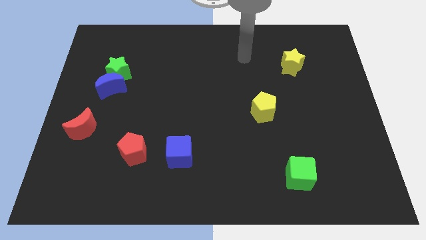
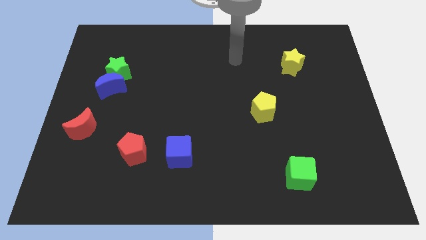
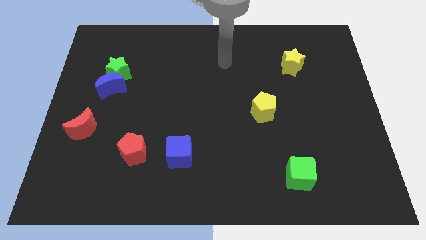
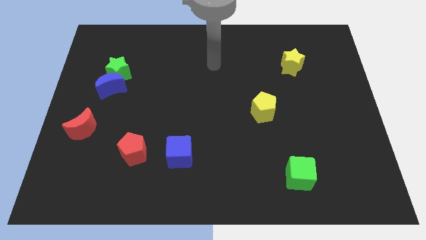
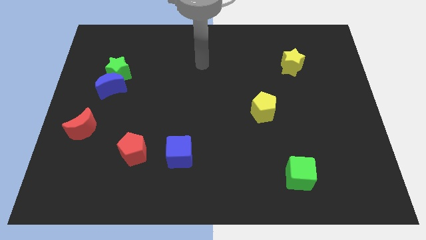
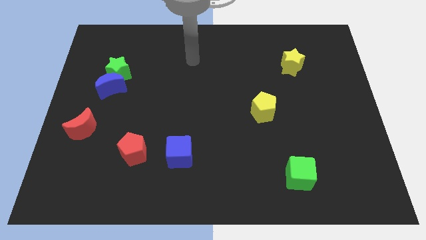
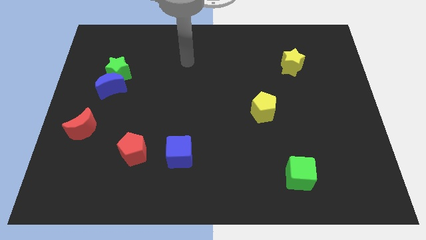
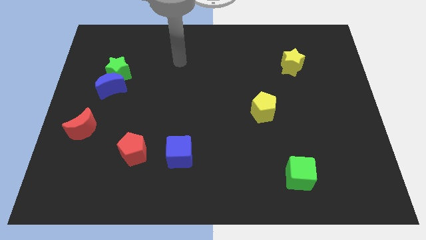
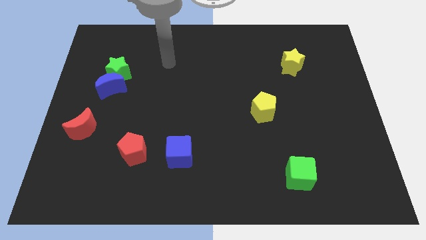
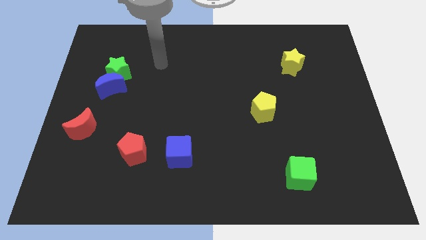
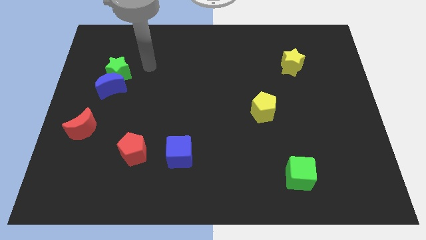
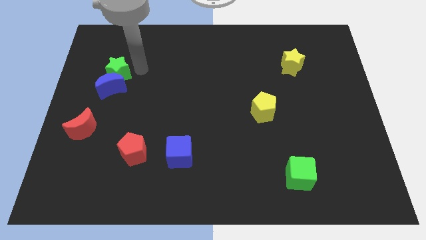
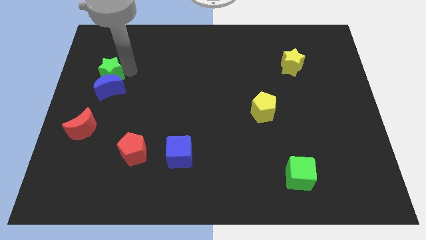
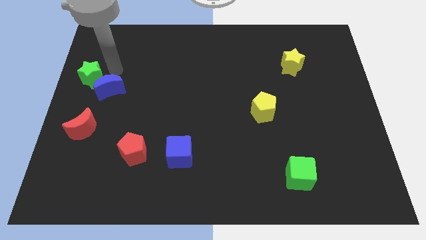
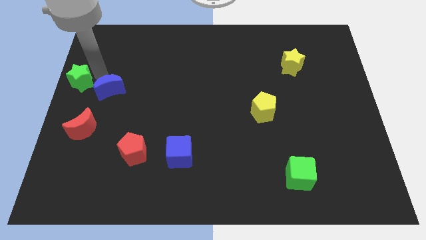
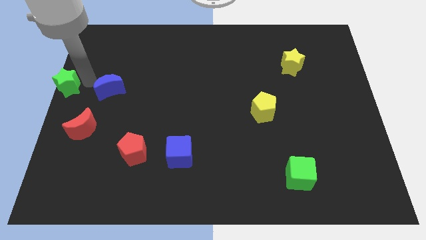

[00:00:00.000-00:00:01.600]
separate the blue moon from the green star

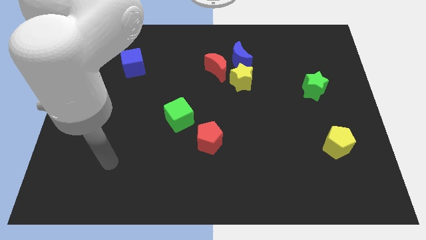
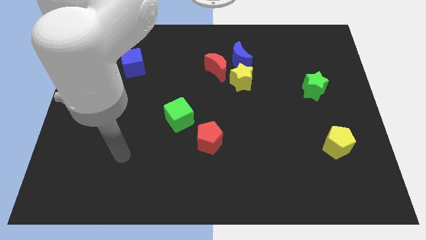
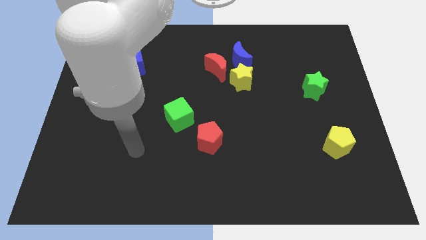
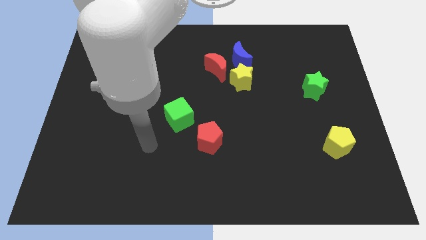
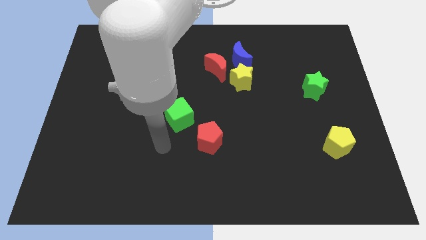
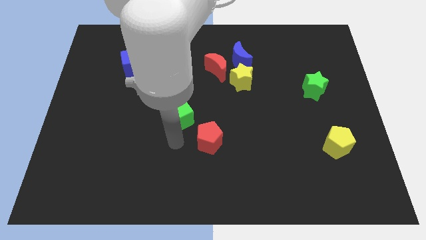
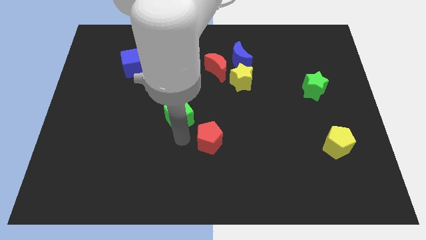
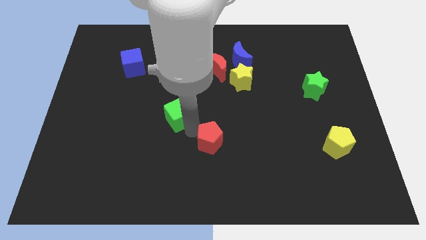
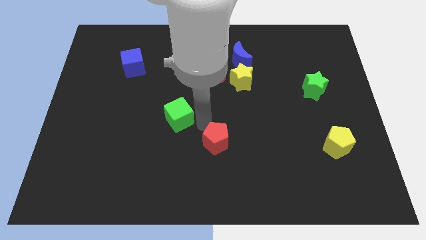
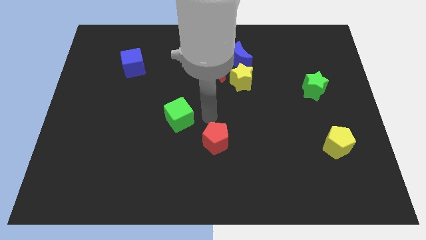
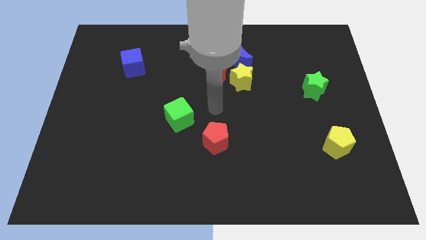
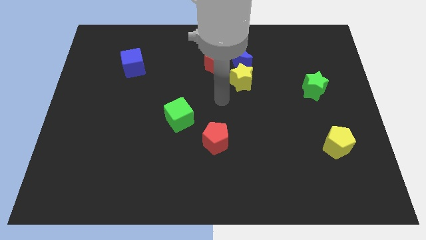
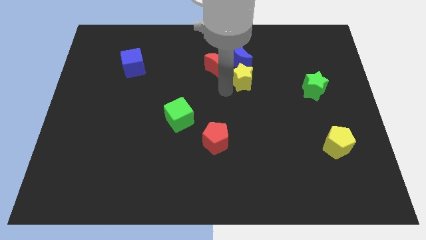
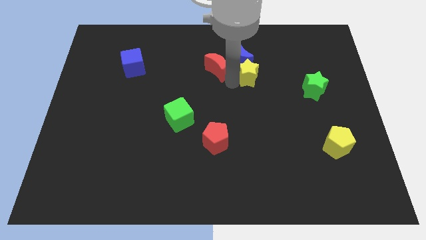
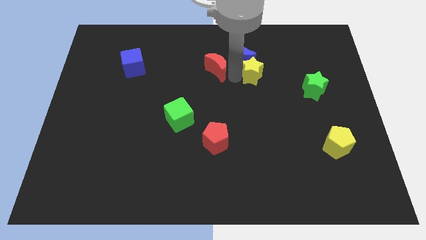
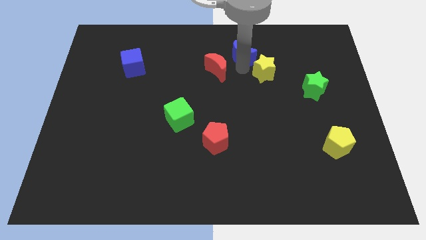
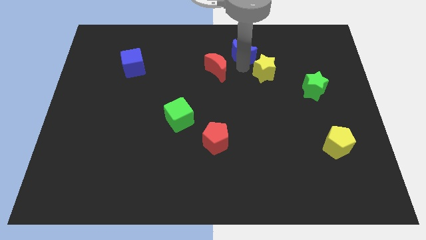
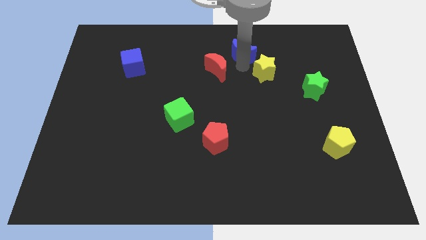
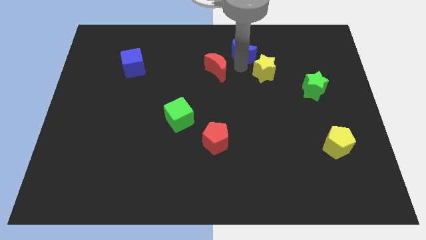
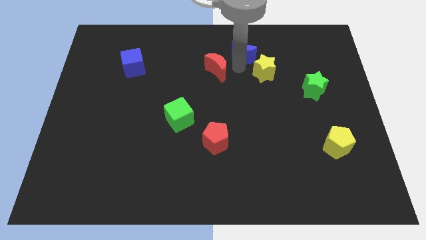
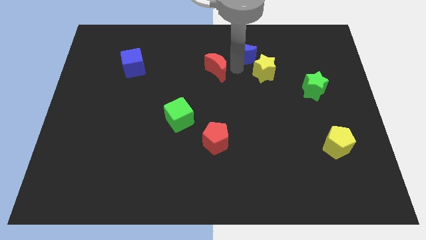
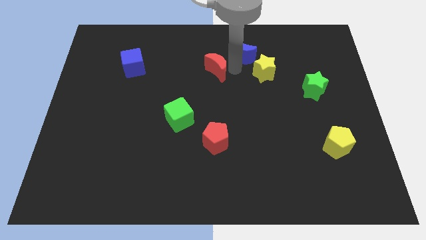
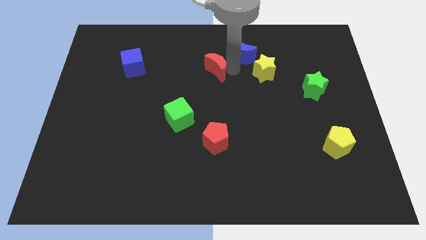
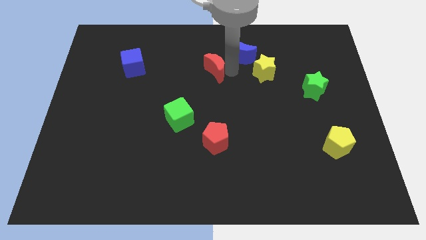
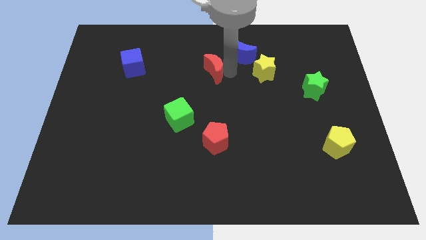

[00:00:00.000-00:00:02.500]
pull the red moon apart from the blue moon and yellow star

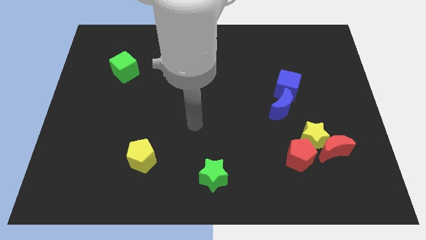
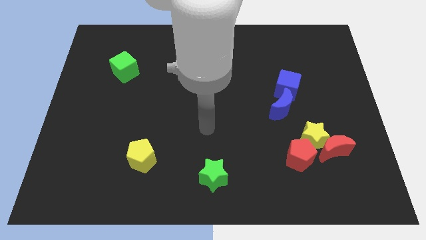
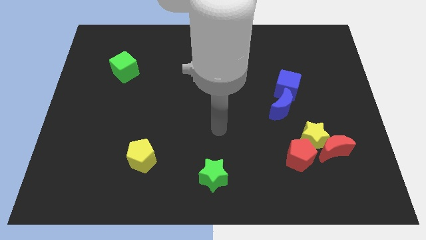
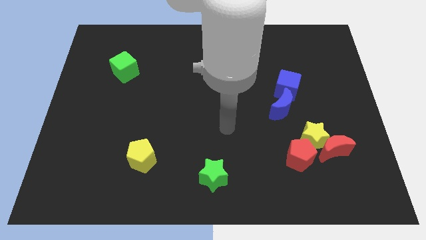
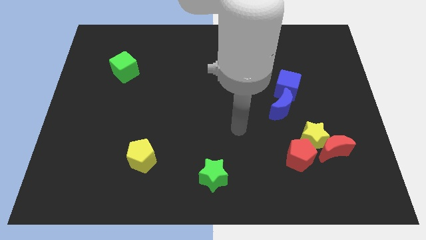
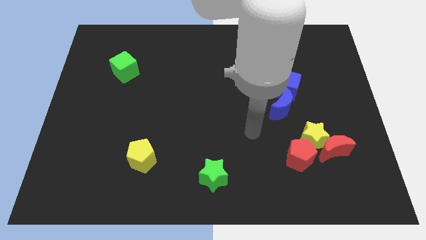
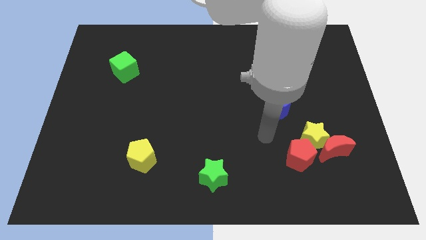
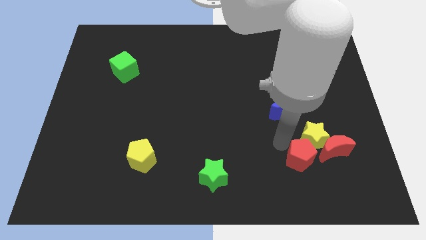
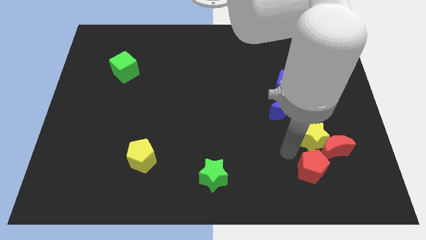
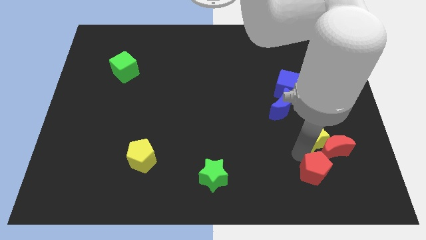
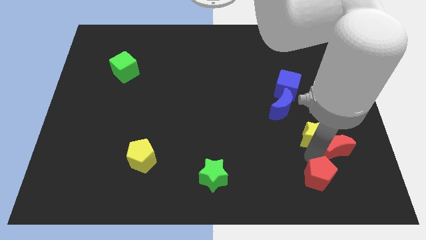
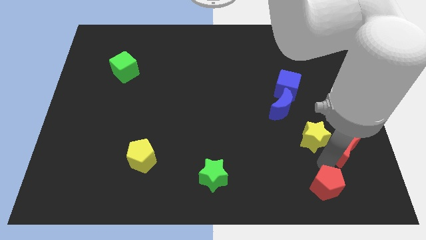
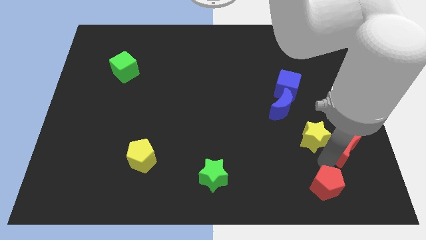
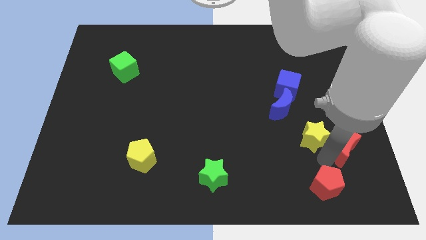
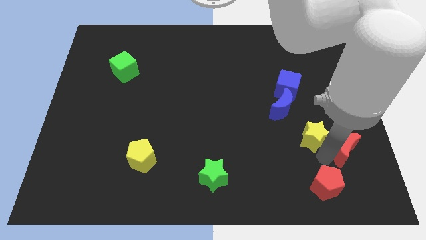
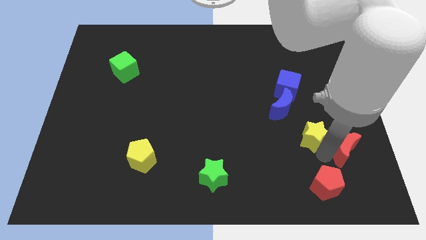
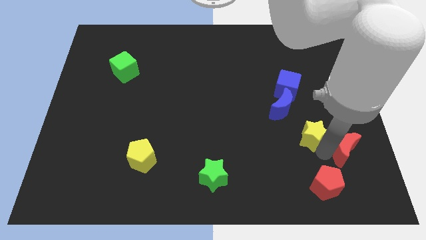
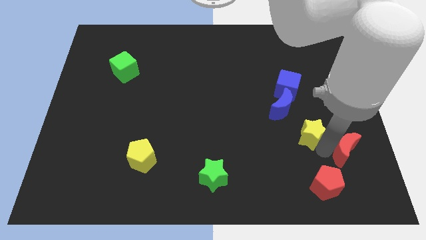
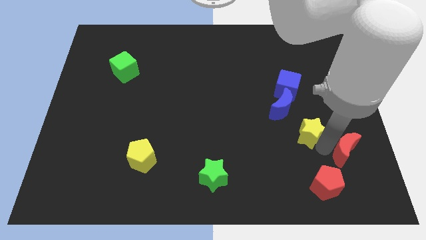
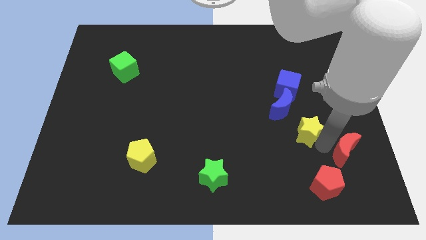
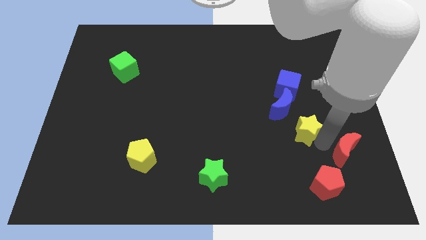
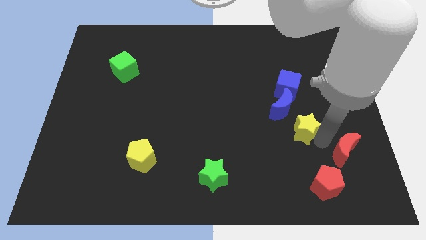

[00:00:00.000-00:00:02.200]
move the yellow star away from the red moon and red pentagon

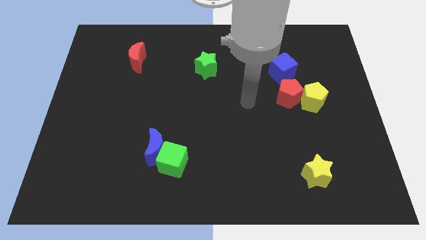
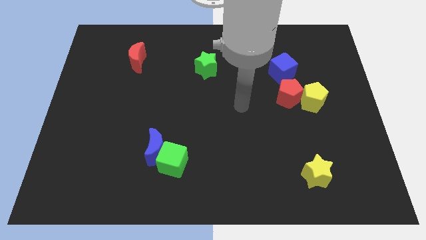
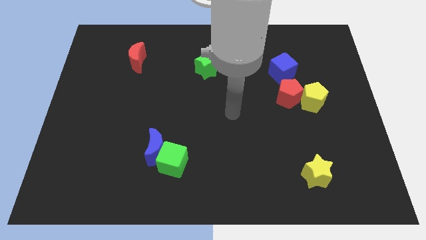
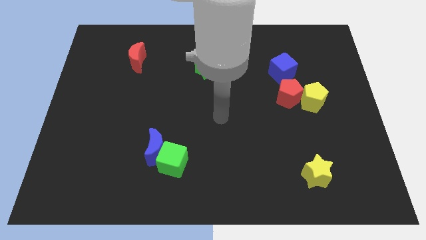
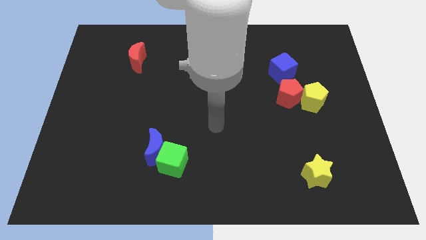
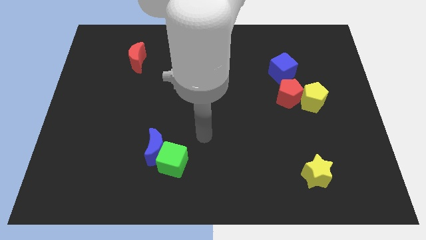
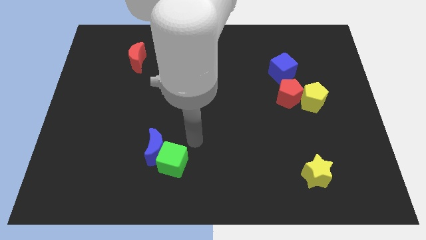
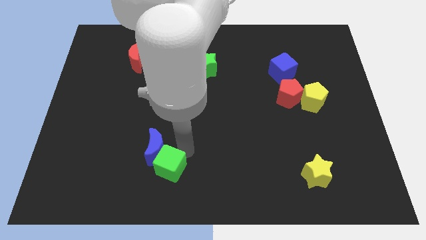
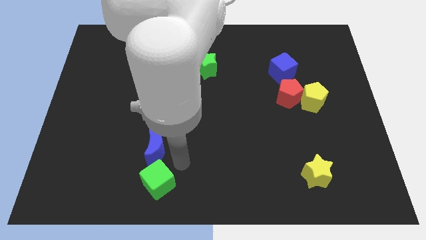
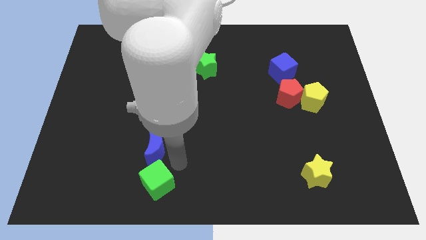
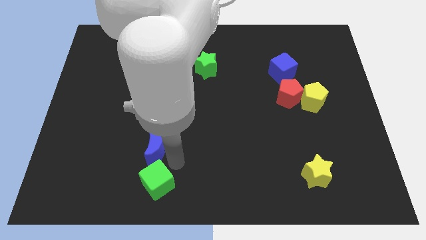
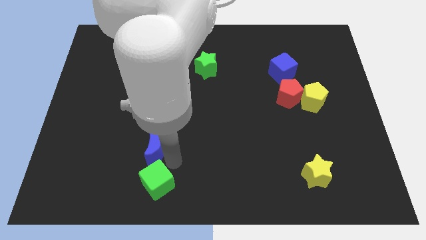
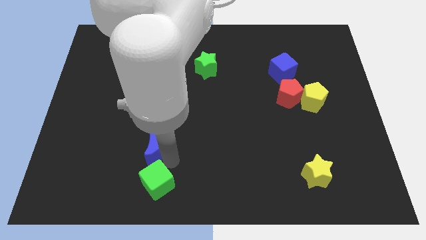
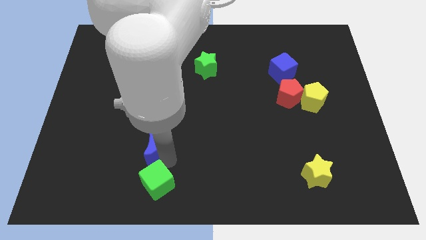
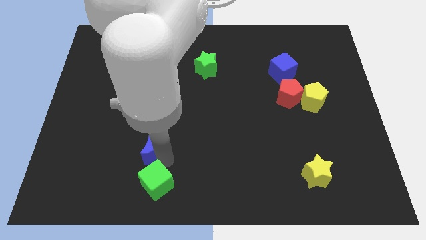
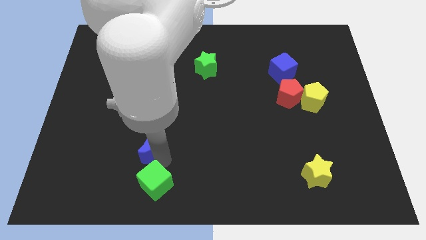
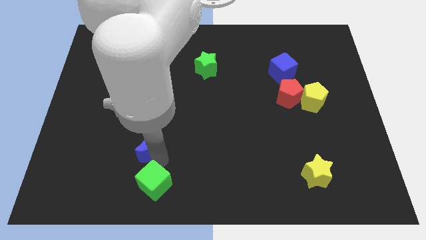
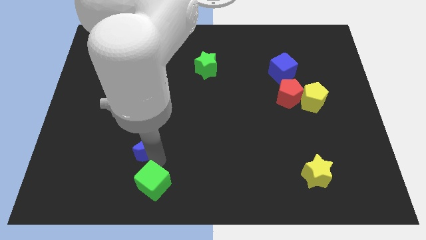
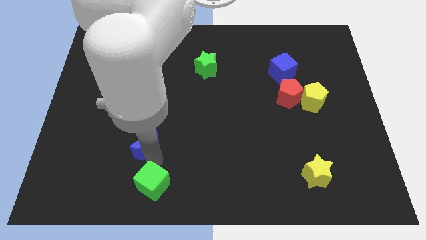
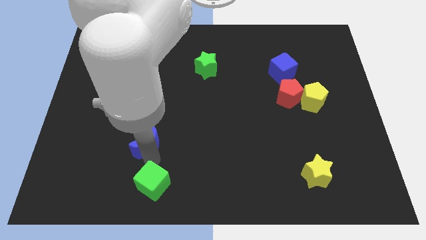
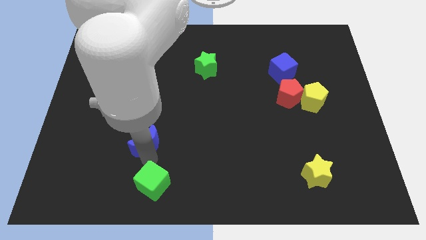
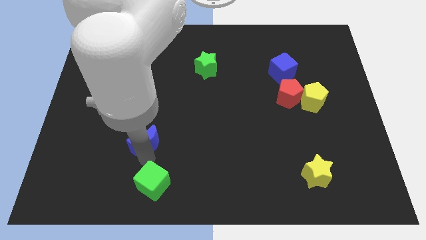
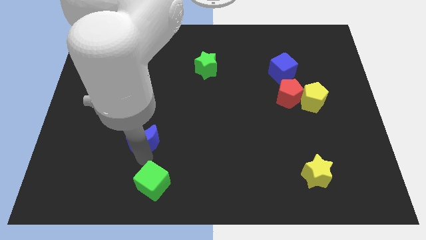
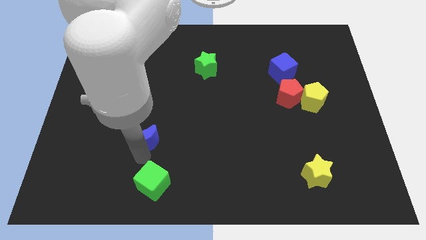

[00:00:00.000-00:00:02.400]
separate the blue moon from the green cube

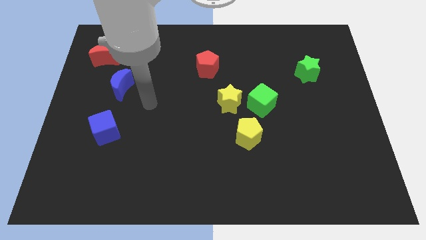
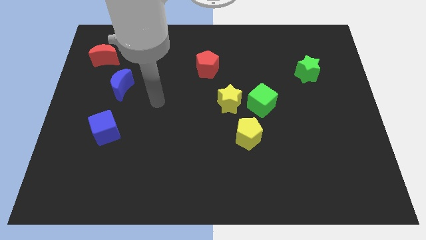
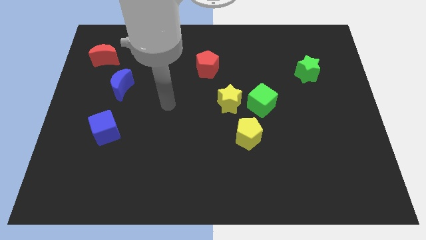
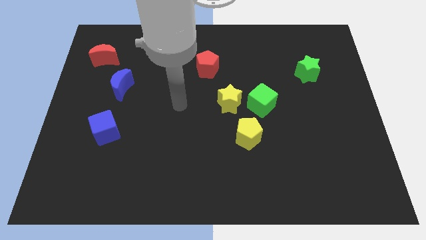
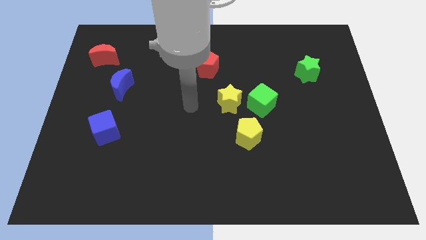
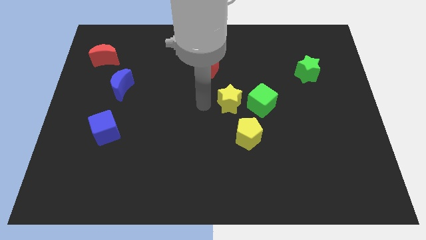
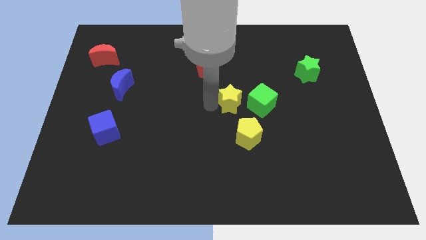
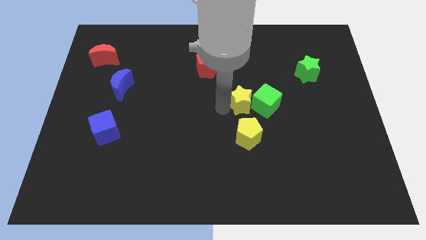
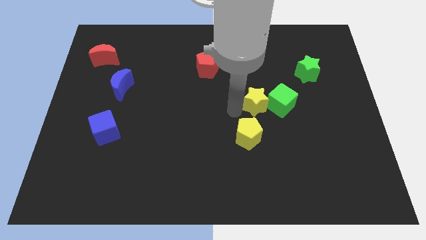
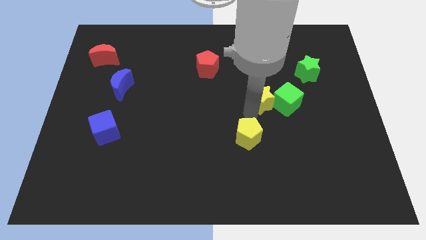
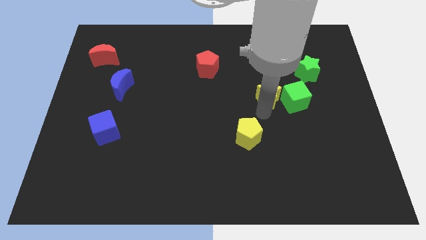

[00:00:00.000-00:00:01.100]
move the green cube away from the yellow star and yellow pentagon
